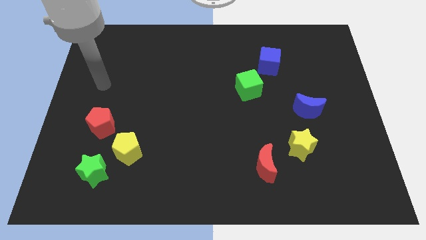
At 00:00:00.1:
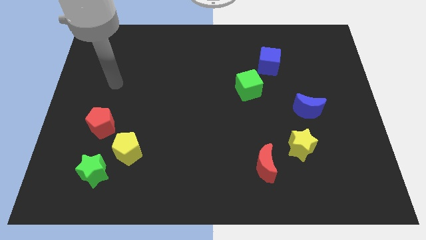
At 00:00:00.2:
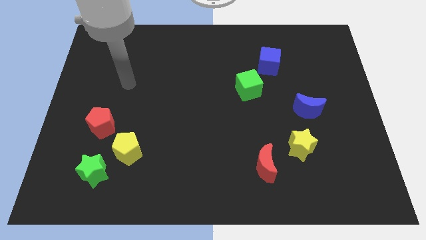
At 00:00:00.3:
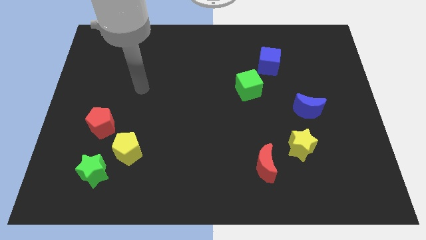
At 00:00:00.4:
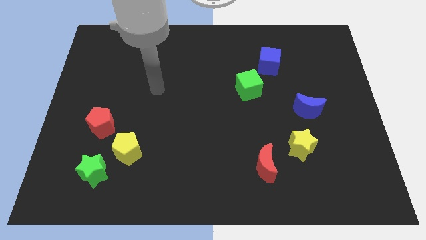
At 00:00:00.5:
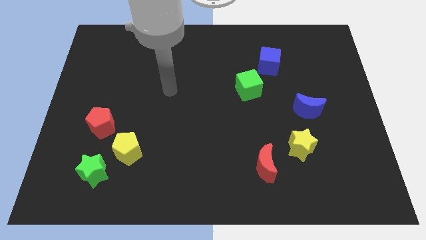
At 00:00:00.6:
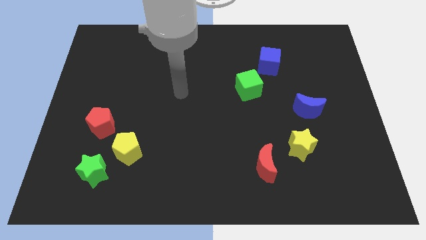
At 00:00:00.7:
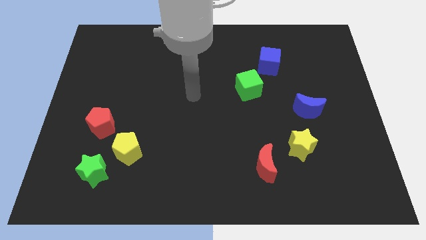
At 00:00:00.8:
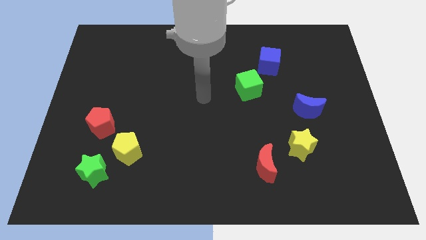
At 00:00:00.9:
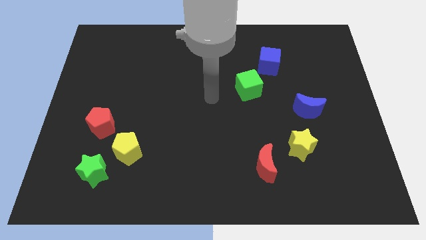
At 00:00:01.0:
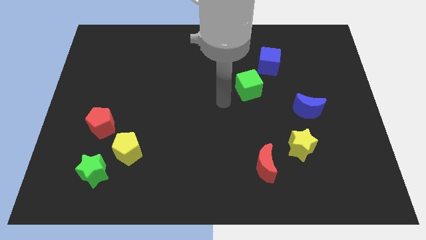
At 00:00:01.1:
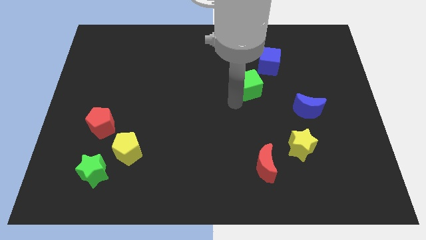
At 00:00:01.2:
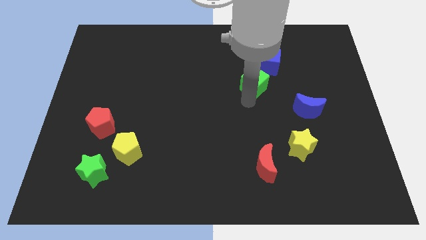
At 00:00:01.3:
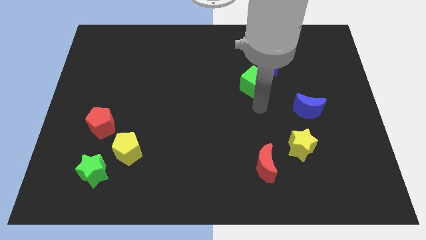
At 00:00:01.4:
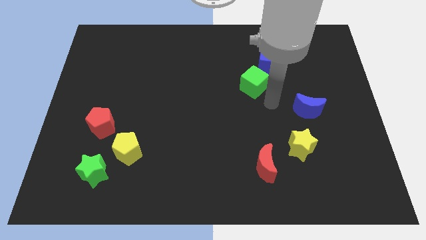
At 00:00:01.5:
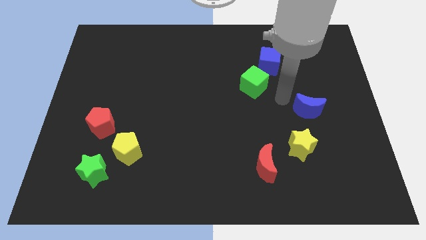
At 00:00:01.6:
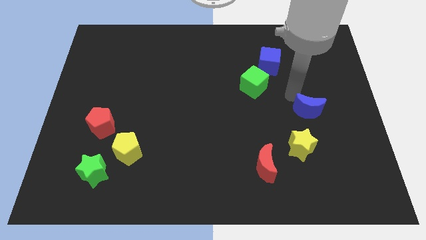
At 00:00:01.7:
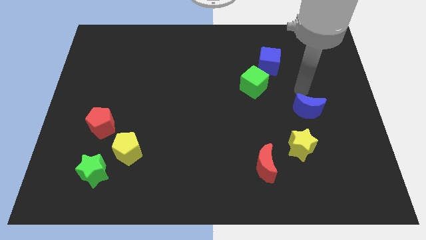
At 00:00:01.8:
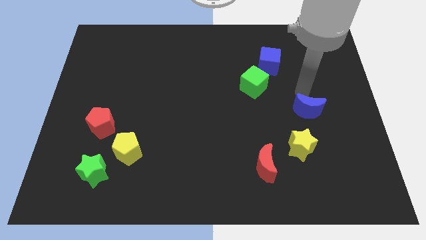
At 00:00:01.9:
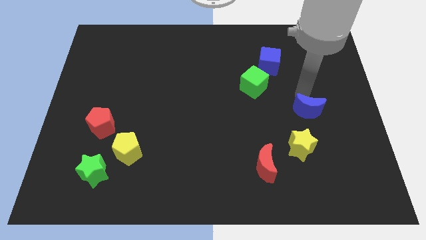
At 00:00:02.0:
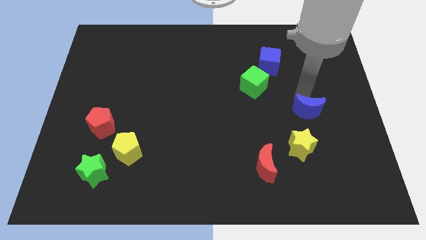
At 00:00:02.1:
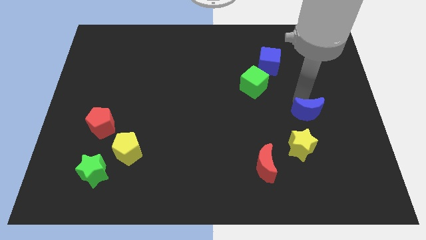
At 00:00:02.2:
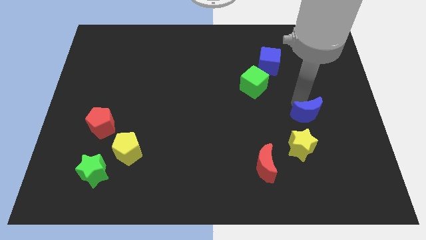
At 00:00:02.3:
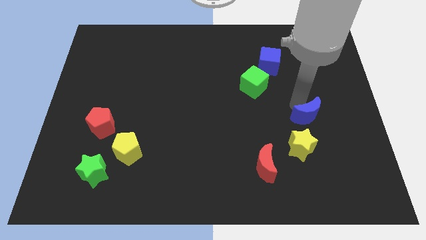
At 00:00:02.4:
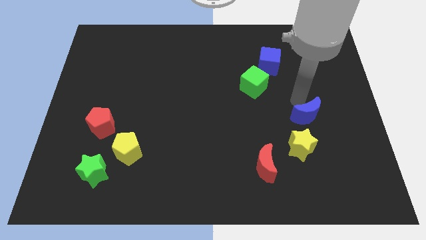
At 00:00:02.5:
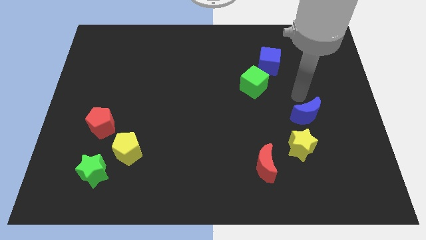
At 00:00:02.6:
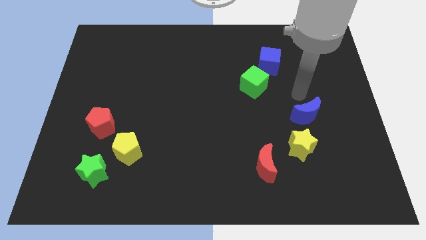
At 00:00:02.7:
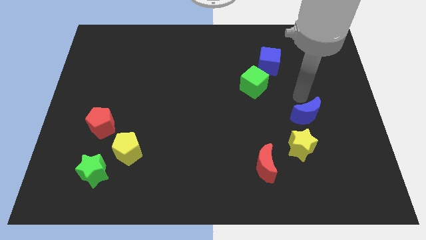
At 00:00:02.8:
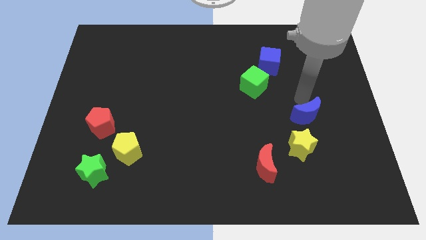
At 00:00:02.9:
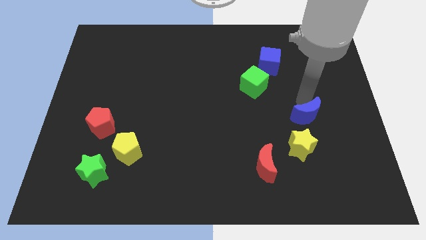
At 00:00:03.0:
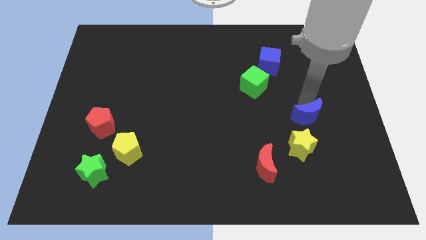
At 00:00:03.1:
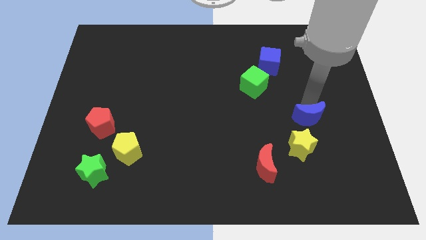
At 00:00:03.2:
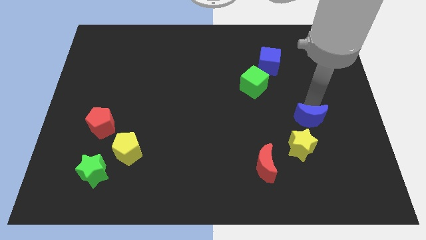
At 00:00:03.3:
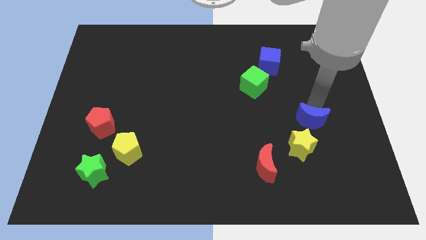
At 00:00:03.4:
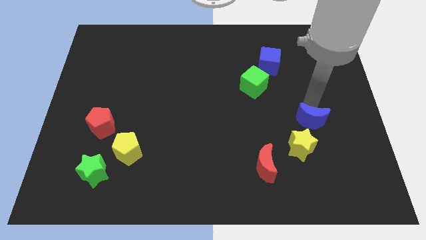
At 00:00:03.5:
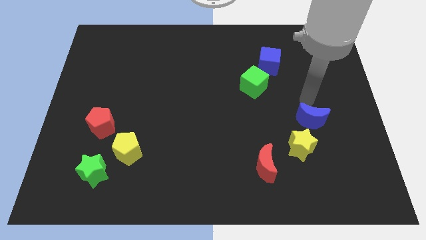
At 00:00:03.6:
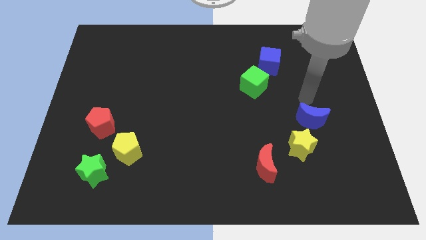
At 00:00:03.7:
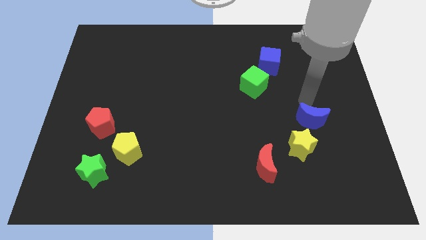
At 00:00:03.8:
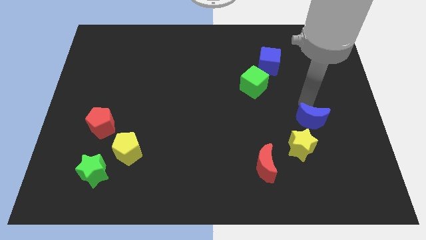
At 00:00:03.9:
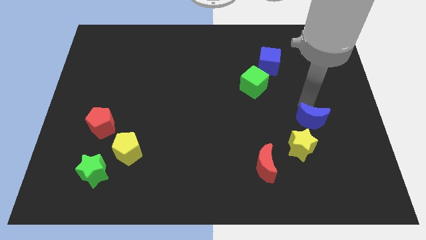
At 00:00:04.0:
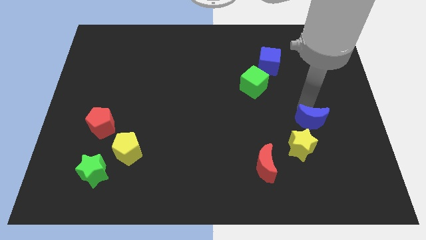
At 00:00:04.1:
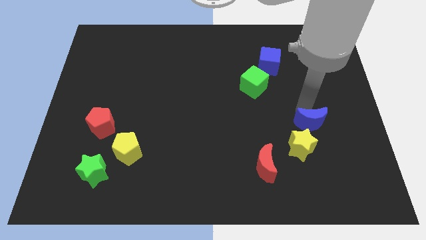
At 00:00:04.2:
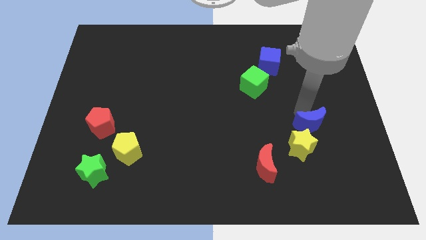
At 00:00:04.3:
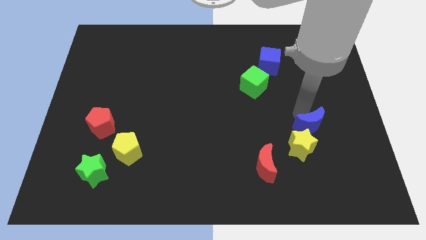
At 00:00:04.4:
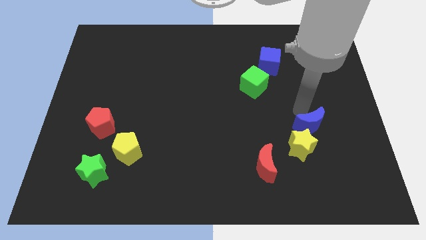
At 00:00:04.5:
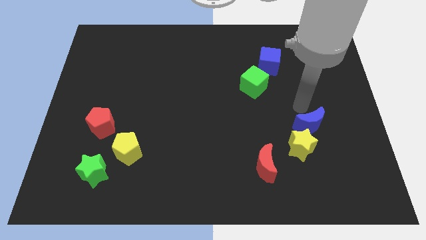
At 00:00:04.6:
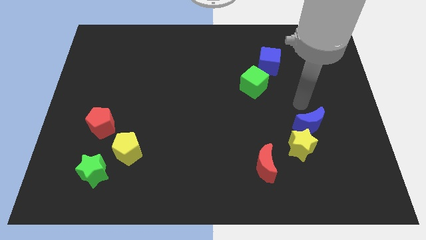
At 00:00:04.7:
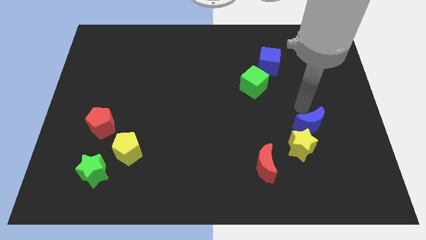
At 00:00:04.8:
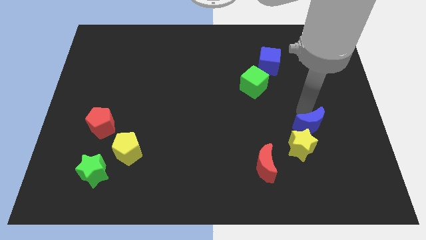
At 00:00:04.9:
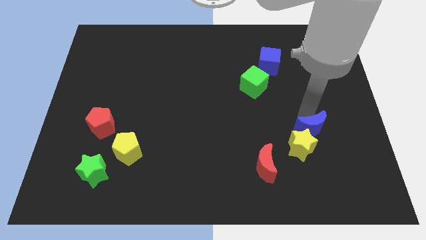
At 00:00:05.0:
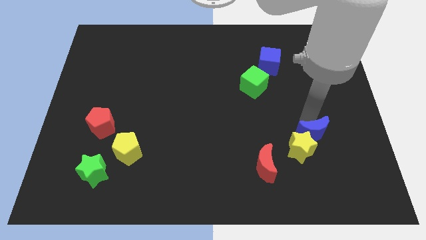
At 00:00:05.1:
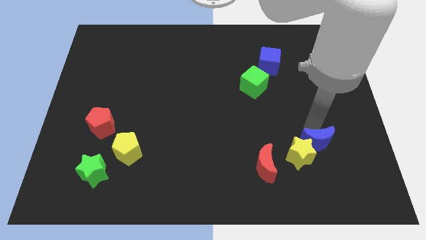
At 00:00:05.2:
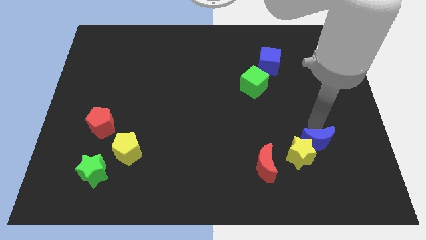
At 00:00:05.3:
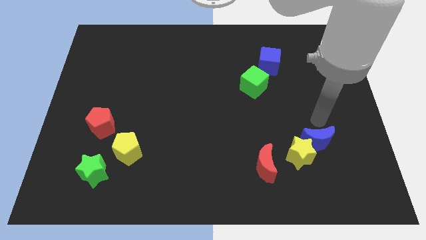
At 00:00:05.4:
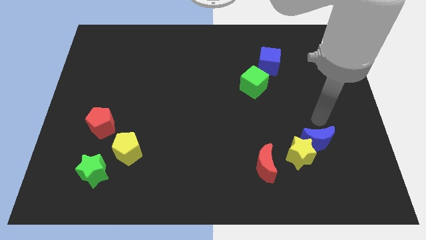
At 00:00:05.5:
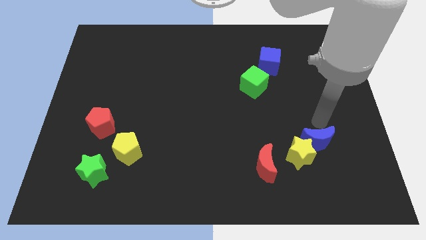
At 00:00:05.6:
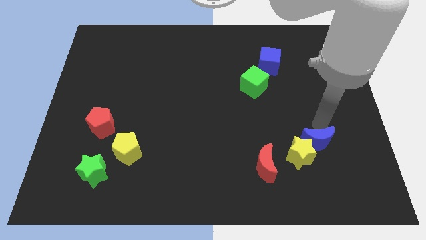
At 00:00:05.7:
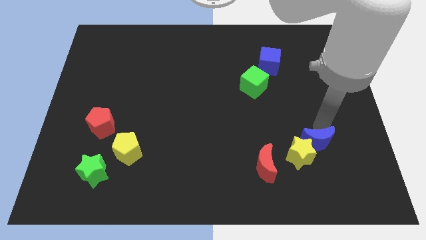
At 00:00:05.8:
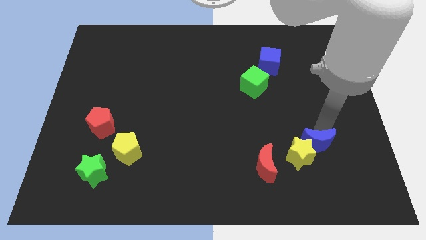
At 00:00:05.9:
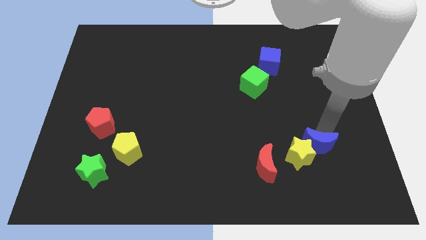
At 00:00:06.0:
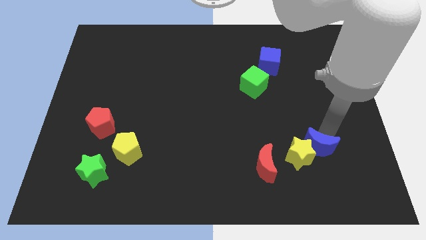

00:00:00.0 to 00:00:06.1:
move the blue moon to the right of the red moon
